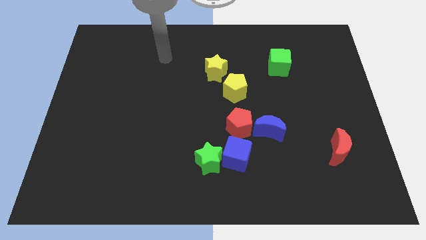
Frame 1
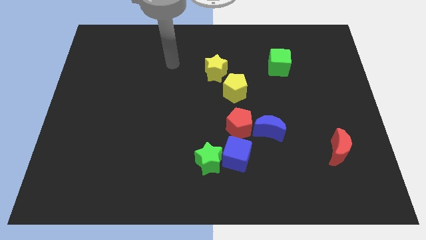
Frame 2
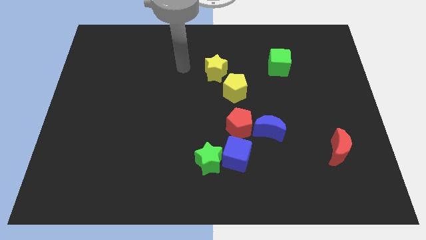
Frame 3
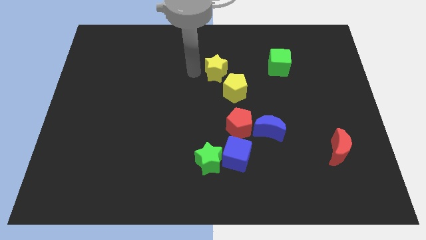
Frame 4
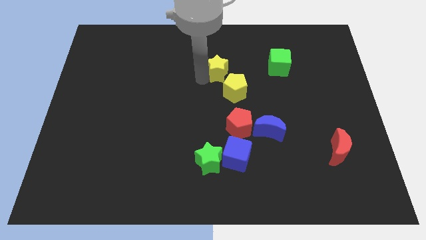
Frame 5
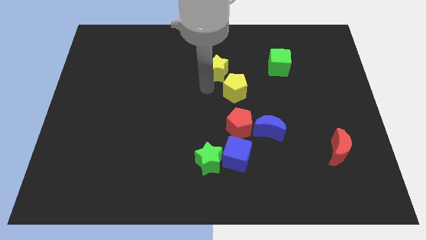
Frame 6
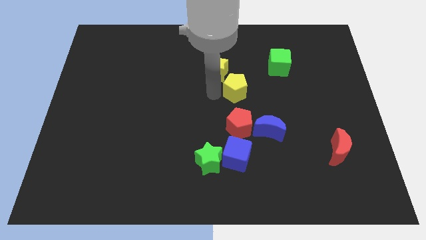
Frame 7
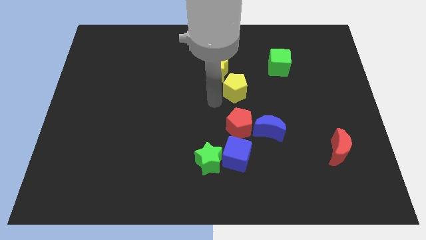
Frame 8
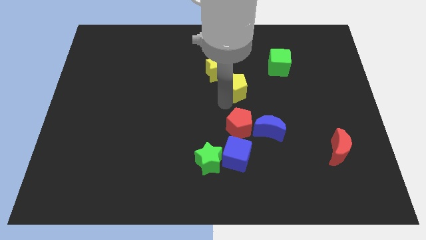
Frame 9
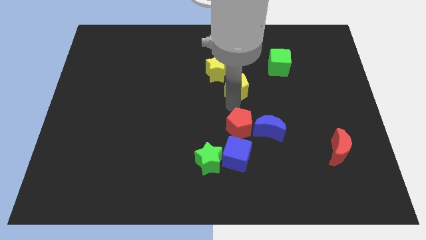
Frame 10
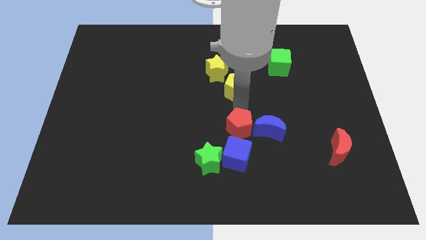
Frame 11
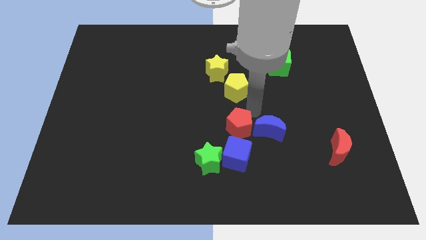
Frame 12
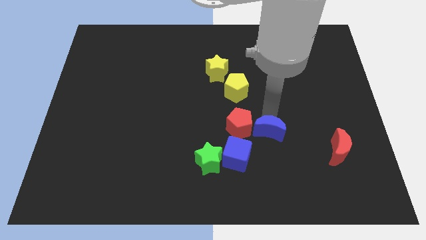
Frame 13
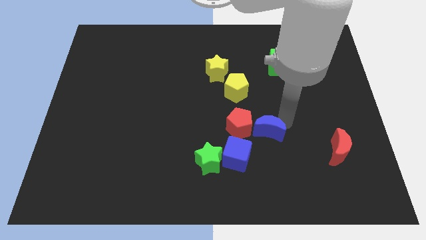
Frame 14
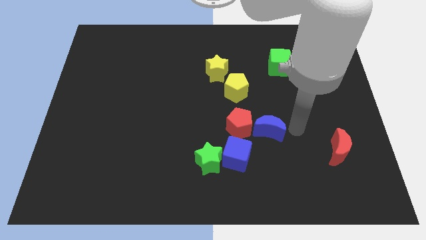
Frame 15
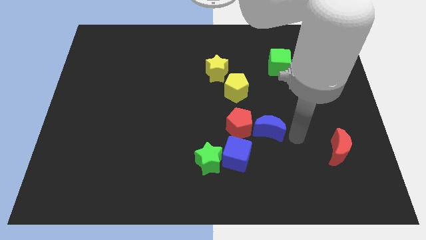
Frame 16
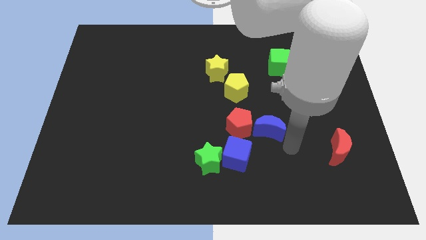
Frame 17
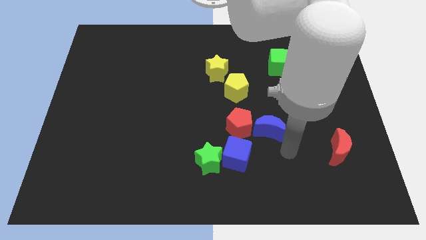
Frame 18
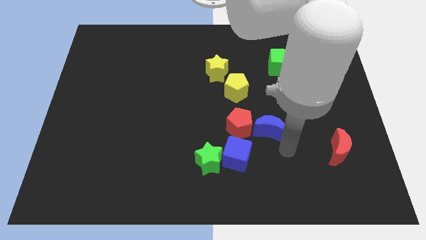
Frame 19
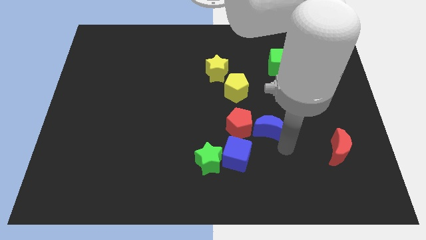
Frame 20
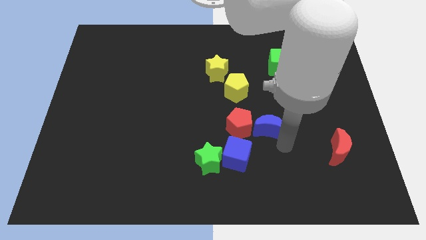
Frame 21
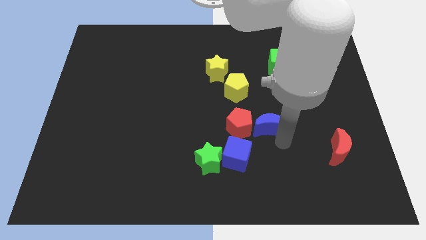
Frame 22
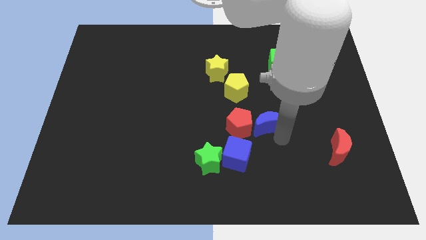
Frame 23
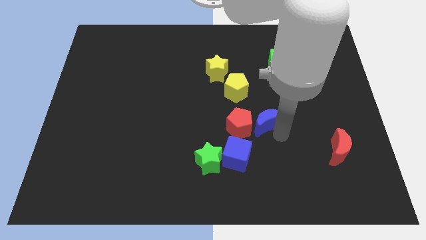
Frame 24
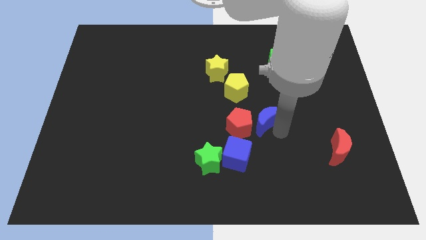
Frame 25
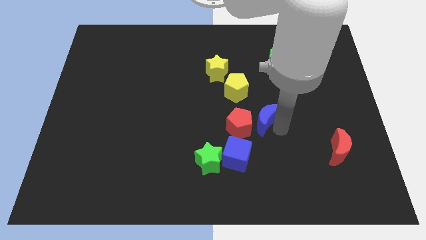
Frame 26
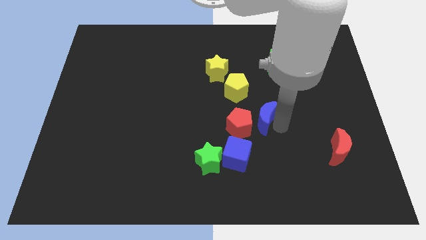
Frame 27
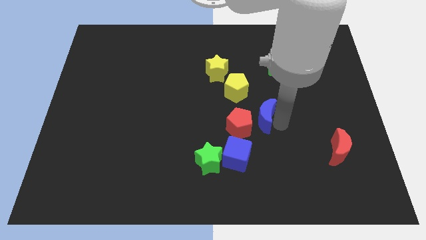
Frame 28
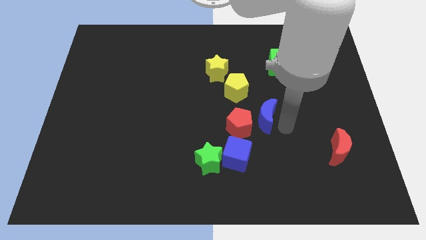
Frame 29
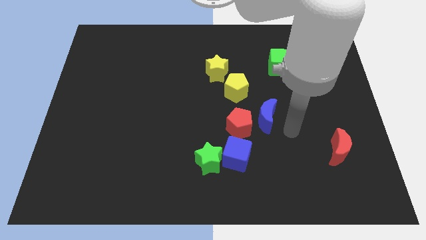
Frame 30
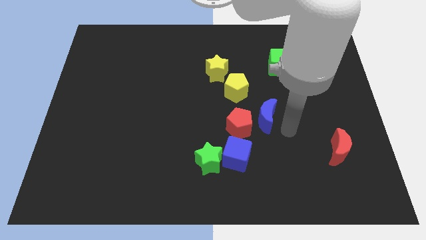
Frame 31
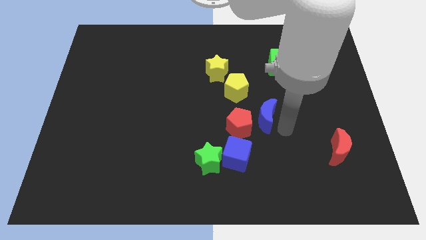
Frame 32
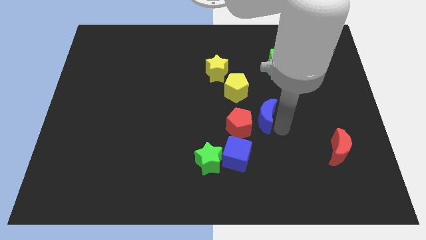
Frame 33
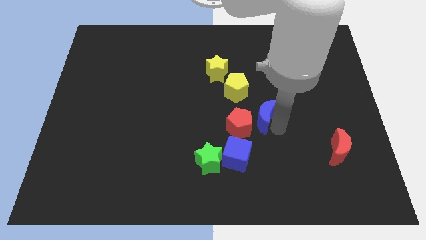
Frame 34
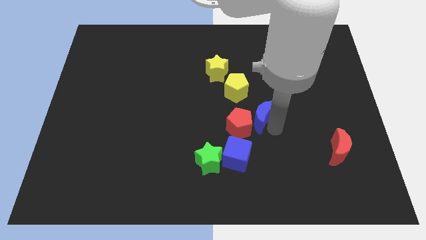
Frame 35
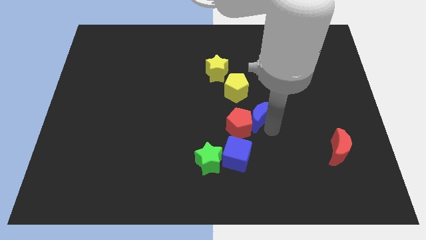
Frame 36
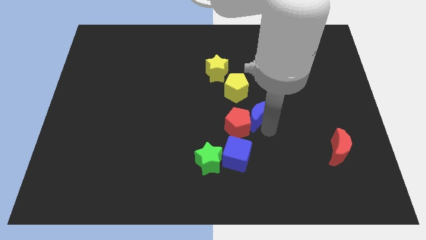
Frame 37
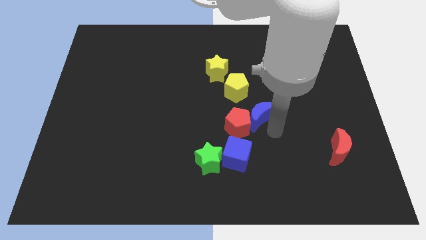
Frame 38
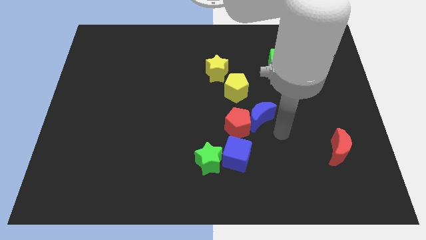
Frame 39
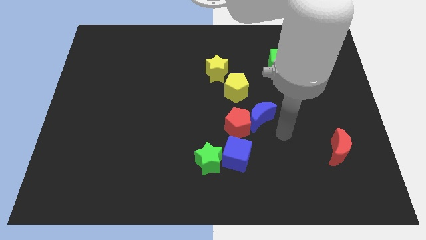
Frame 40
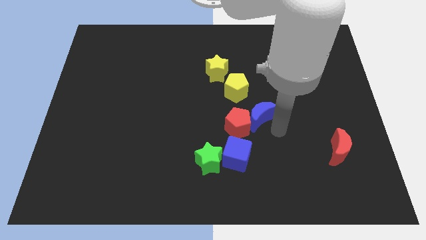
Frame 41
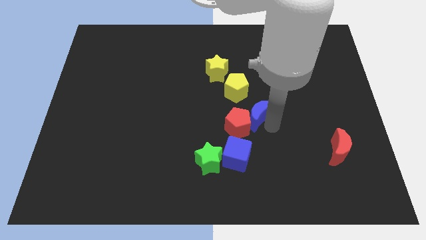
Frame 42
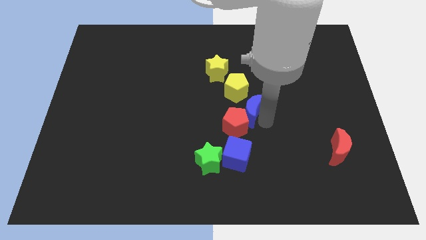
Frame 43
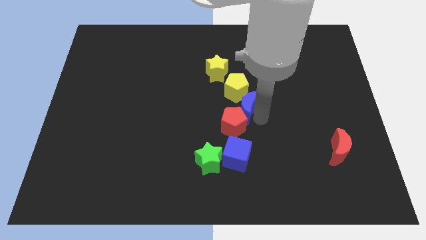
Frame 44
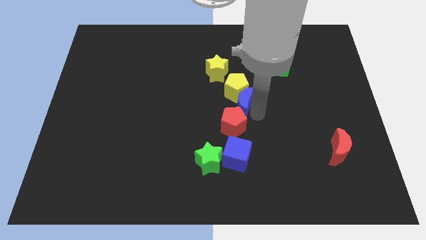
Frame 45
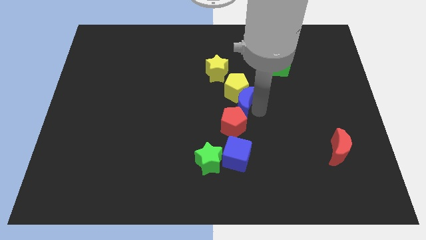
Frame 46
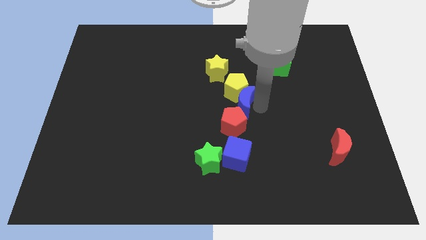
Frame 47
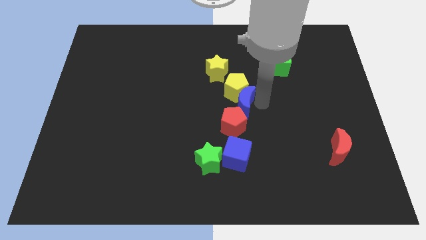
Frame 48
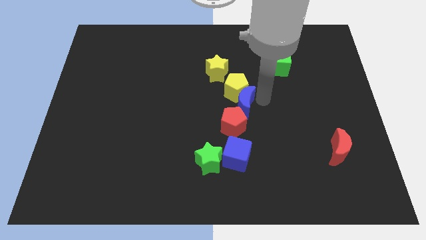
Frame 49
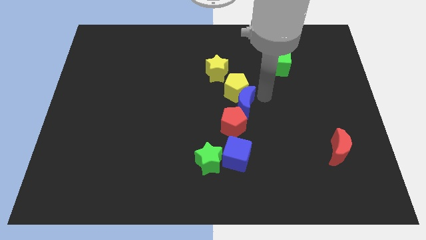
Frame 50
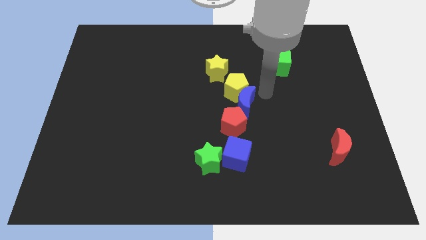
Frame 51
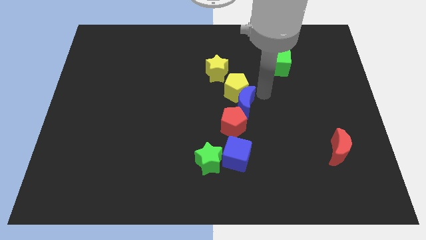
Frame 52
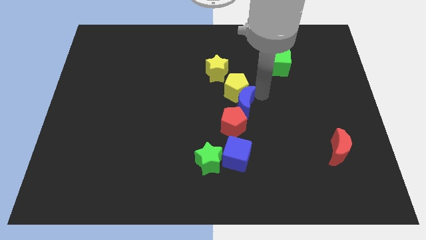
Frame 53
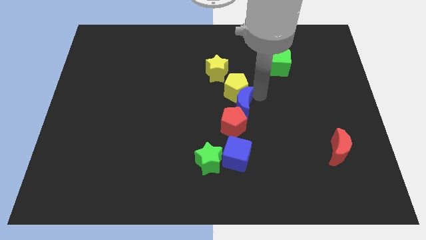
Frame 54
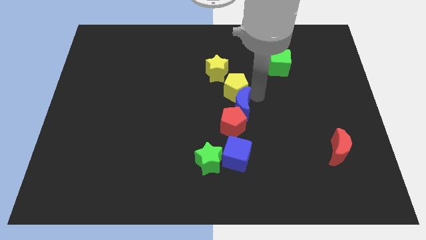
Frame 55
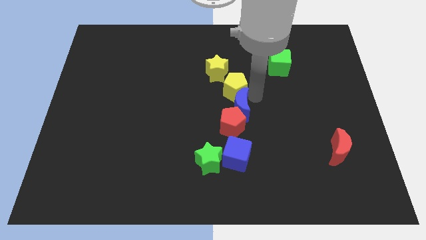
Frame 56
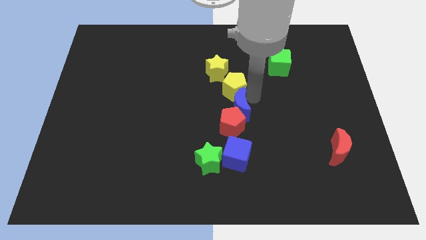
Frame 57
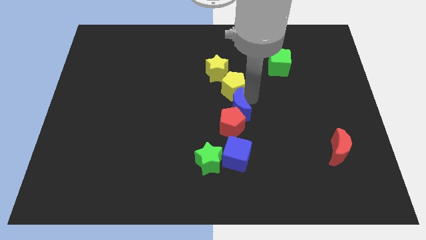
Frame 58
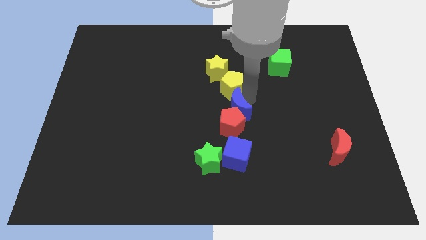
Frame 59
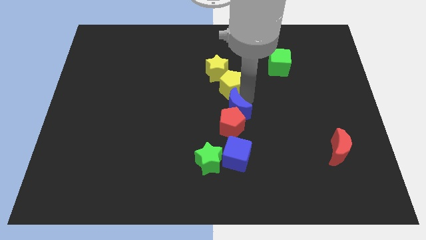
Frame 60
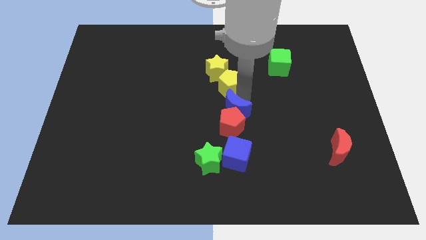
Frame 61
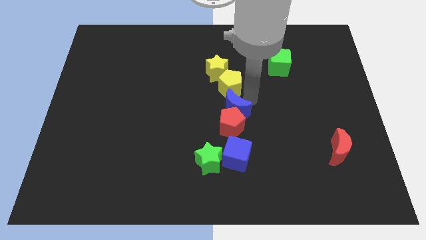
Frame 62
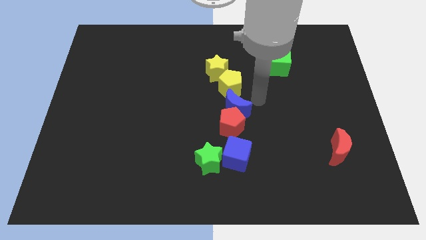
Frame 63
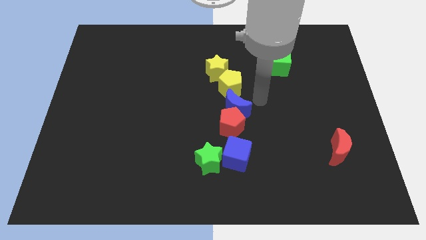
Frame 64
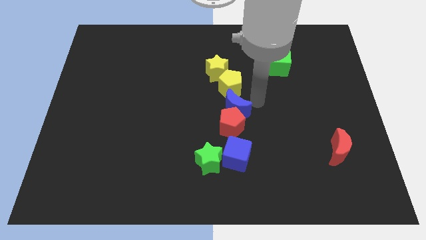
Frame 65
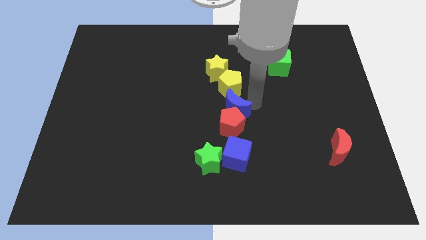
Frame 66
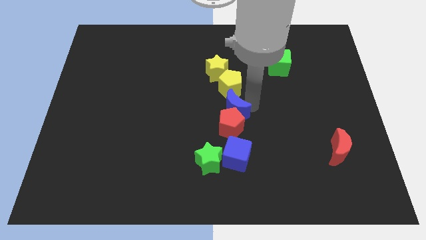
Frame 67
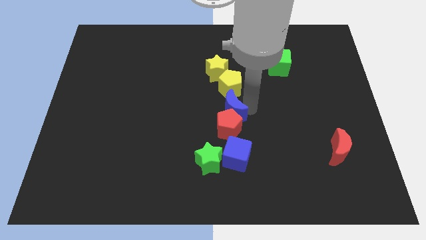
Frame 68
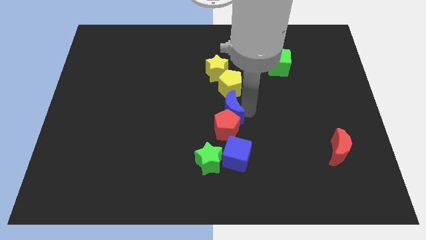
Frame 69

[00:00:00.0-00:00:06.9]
slightly push the blue moon to the left

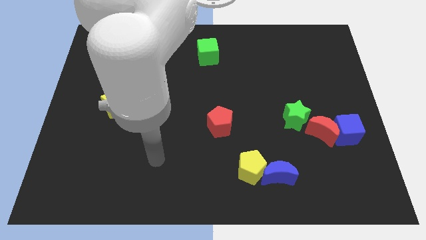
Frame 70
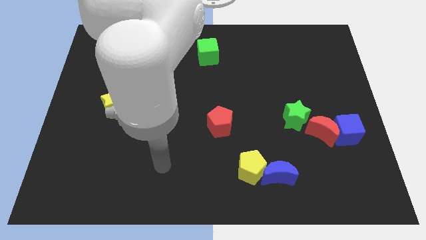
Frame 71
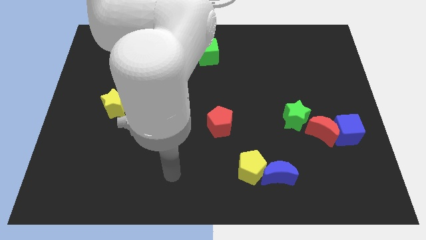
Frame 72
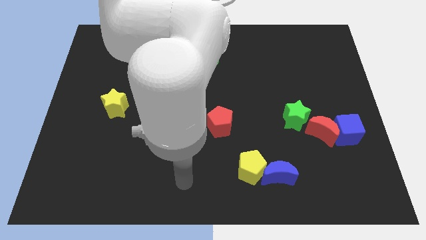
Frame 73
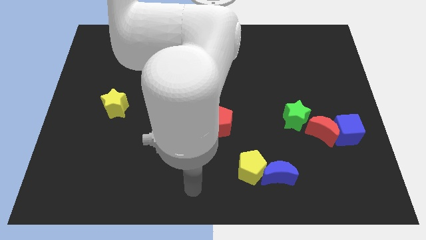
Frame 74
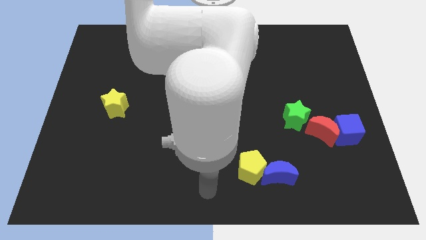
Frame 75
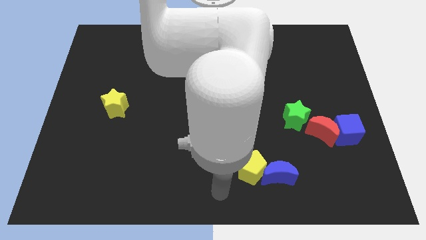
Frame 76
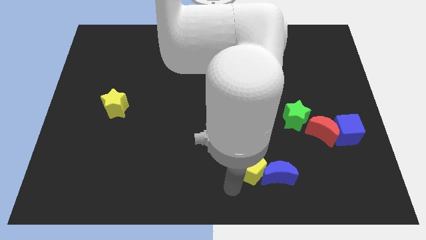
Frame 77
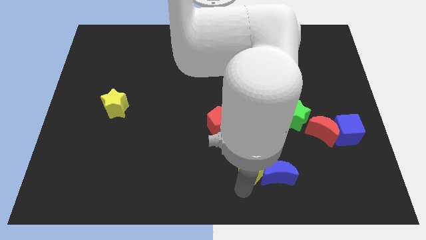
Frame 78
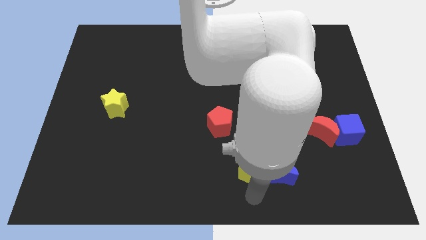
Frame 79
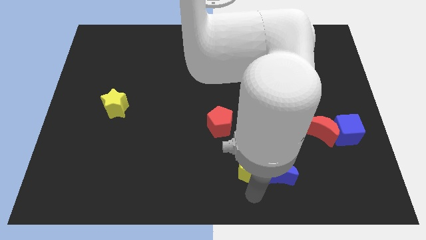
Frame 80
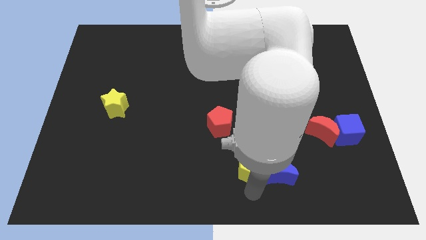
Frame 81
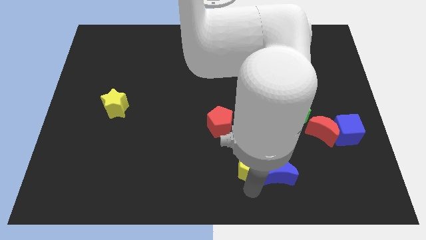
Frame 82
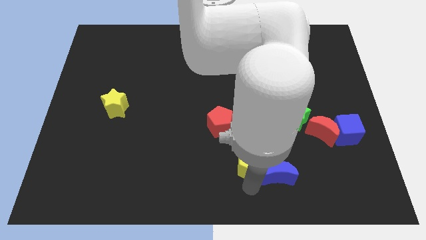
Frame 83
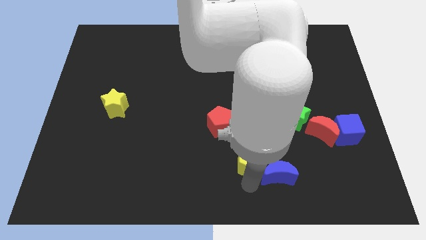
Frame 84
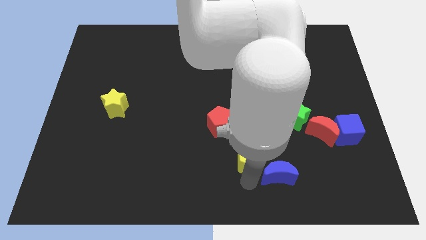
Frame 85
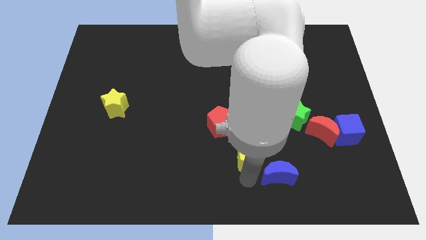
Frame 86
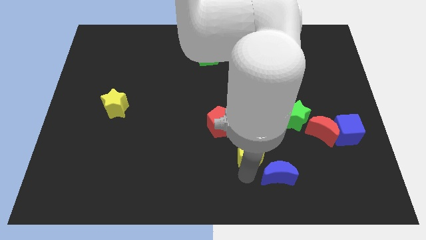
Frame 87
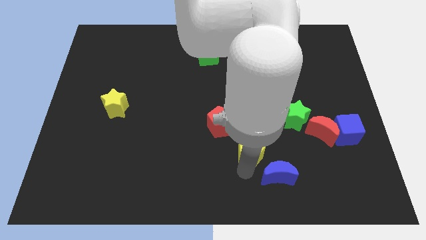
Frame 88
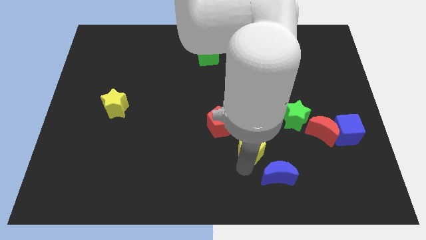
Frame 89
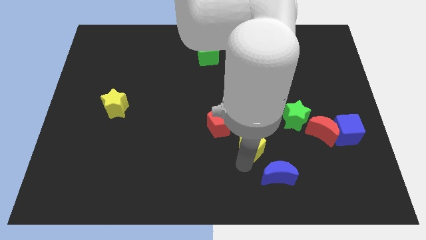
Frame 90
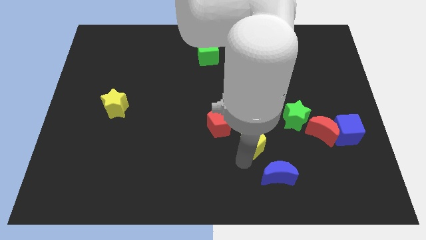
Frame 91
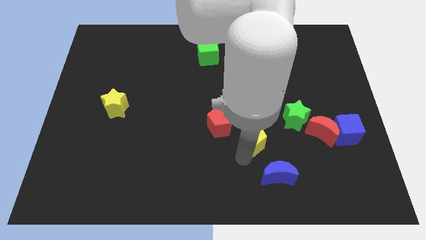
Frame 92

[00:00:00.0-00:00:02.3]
slightly push the yellow pentagon up
